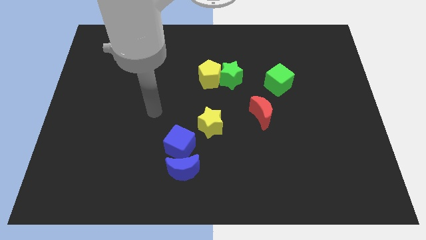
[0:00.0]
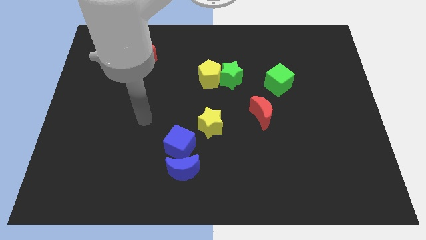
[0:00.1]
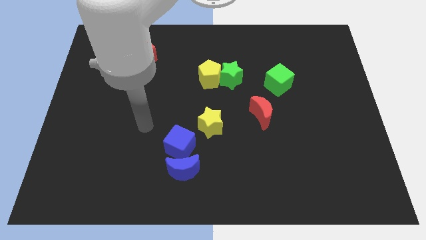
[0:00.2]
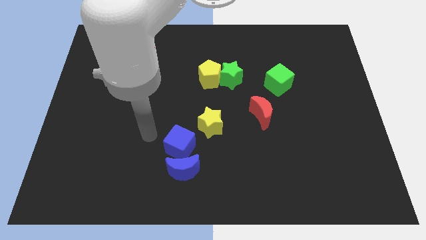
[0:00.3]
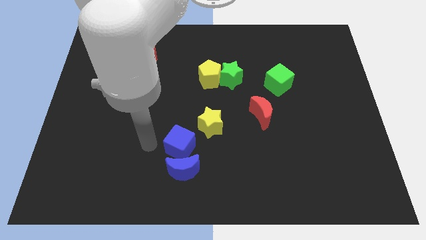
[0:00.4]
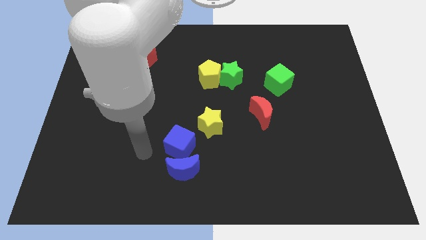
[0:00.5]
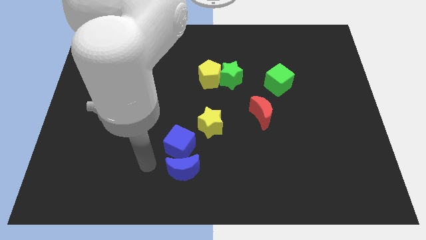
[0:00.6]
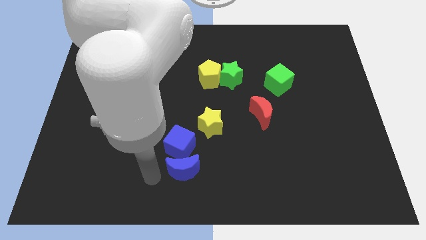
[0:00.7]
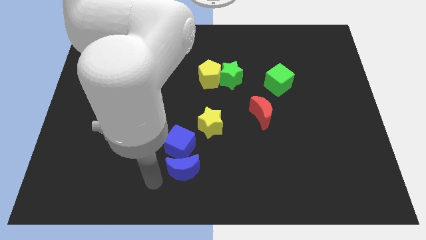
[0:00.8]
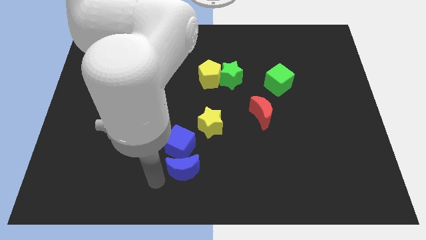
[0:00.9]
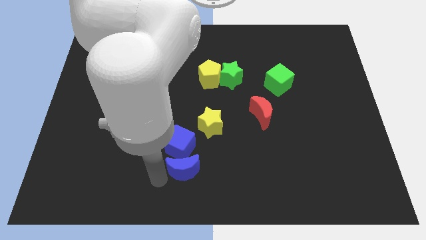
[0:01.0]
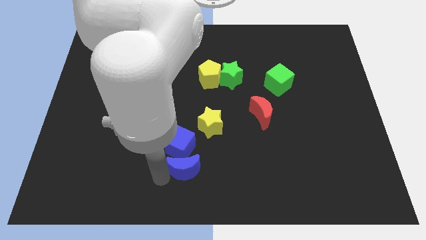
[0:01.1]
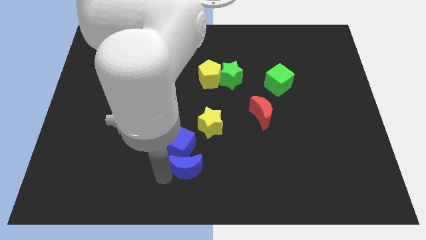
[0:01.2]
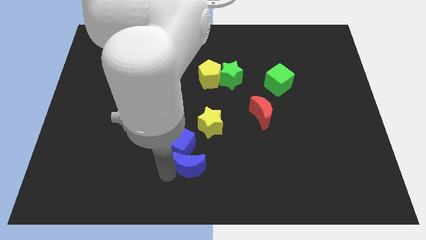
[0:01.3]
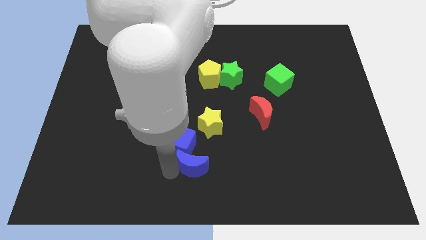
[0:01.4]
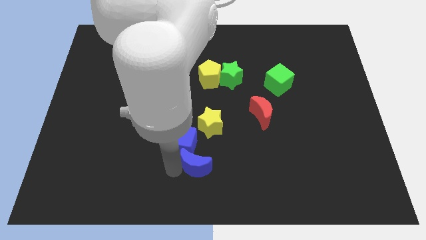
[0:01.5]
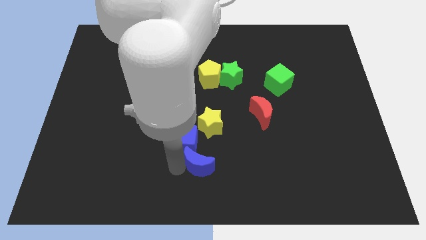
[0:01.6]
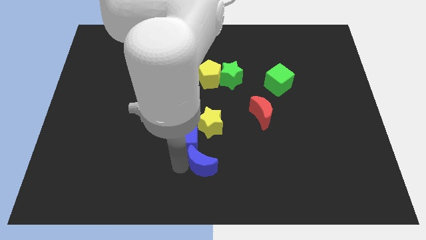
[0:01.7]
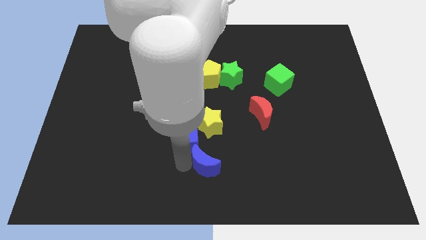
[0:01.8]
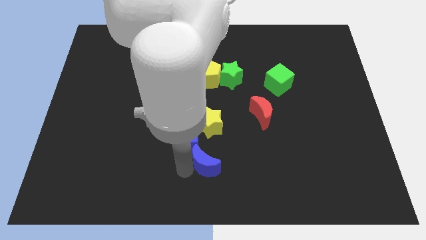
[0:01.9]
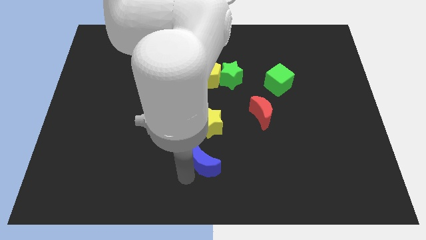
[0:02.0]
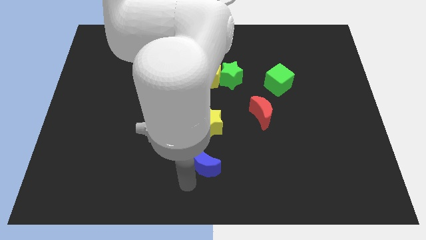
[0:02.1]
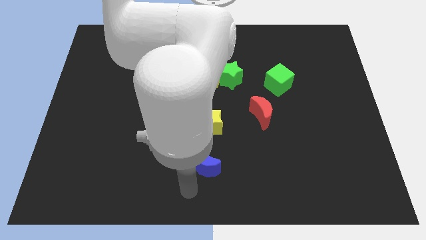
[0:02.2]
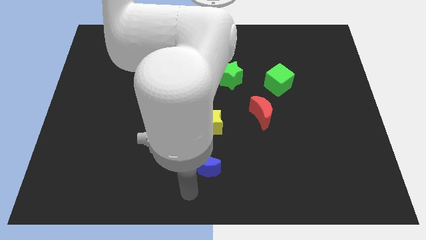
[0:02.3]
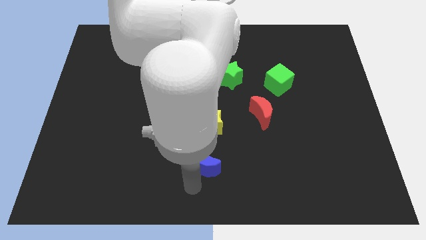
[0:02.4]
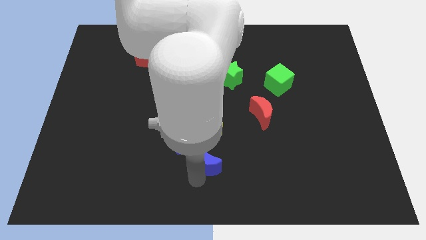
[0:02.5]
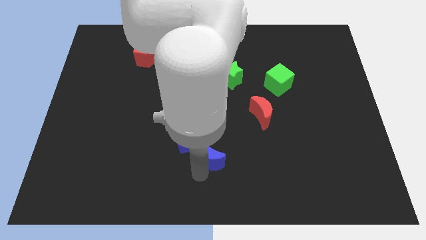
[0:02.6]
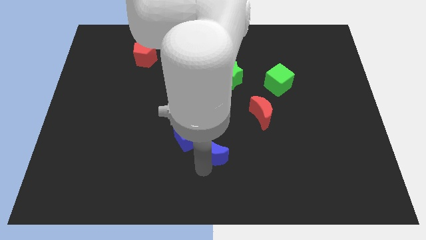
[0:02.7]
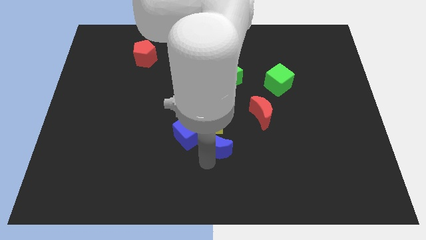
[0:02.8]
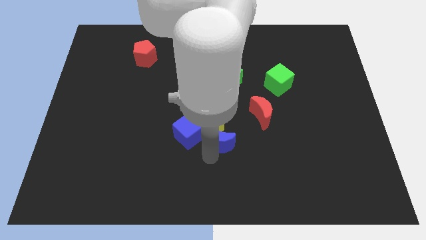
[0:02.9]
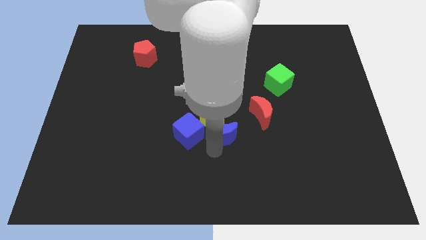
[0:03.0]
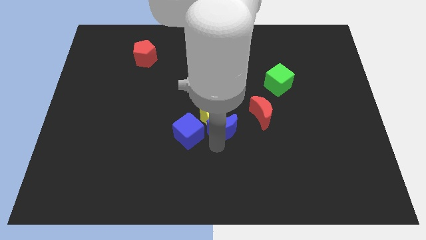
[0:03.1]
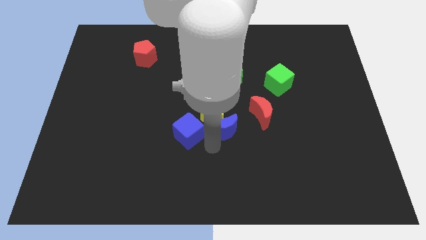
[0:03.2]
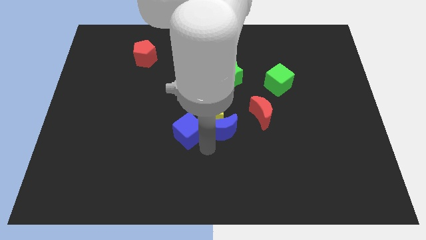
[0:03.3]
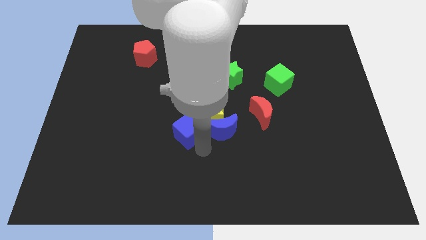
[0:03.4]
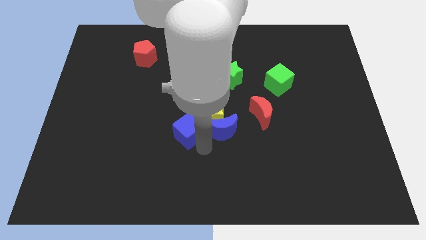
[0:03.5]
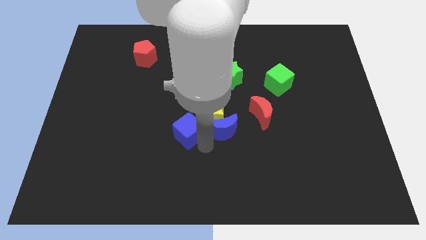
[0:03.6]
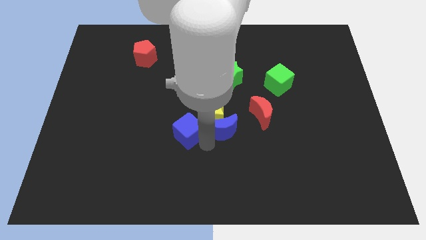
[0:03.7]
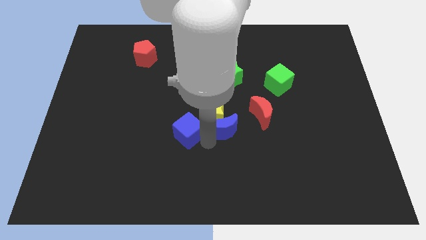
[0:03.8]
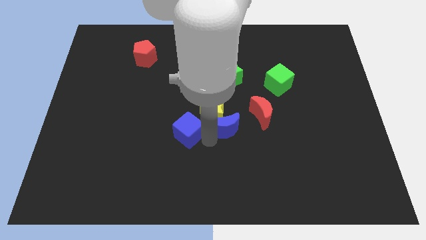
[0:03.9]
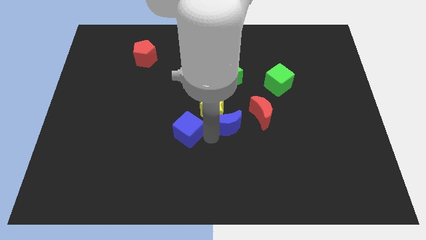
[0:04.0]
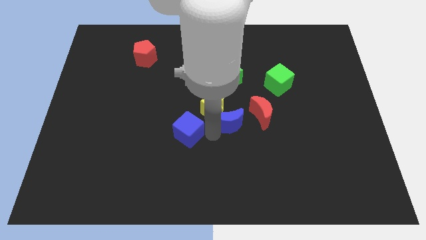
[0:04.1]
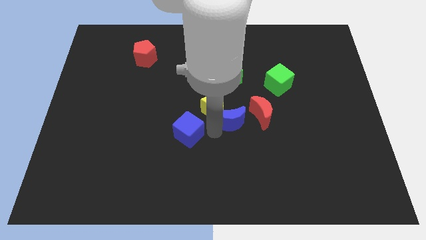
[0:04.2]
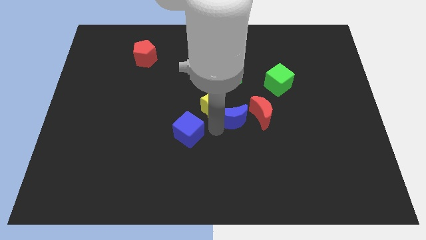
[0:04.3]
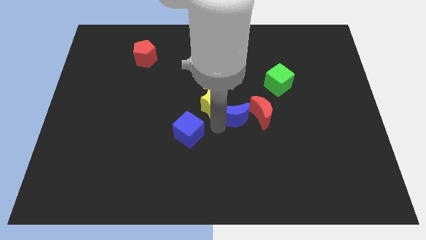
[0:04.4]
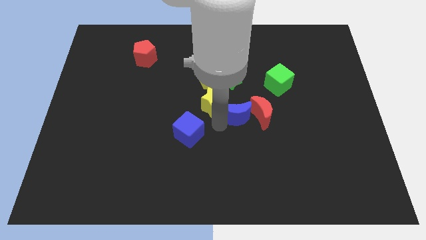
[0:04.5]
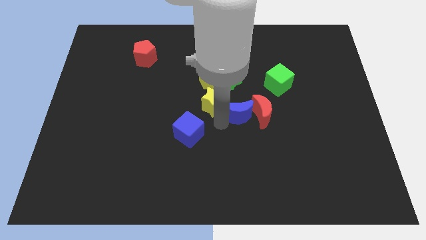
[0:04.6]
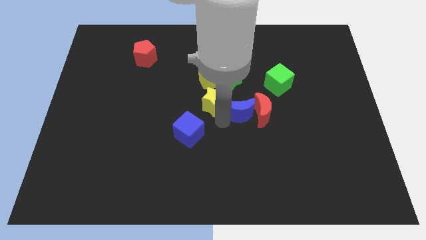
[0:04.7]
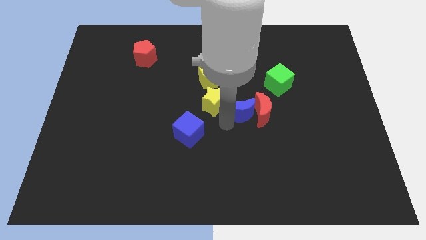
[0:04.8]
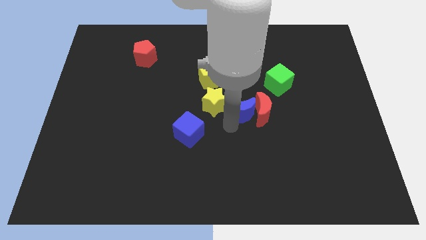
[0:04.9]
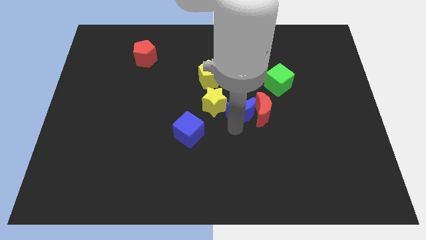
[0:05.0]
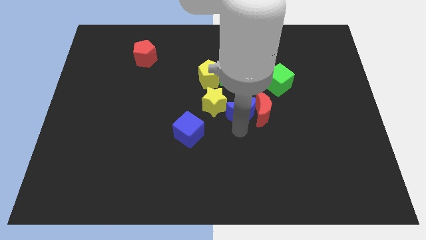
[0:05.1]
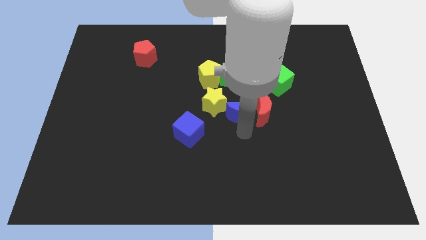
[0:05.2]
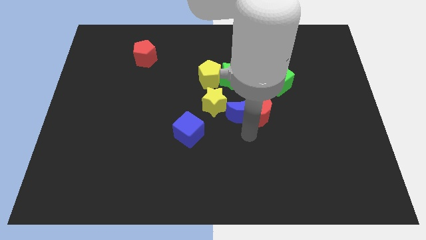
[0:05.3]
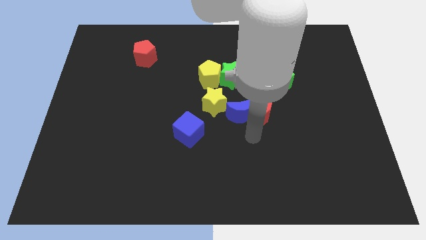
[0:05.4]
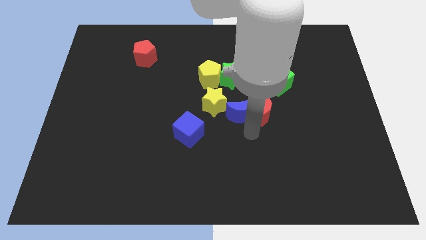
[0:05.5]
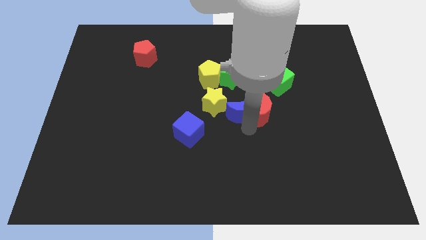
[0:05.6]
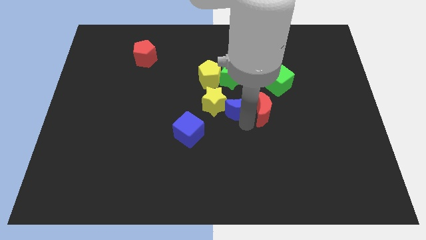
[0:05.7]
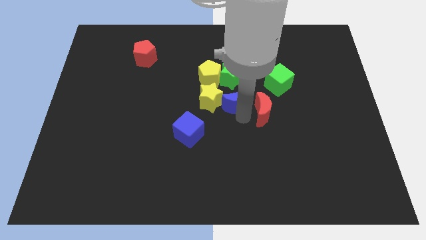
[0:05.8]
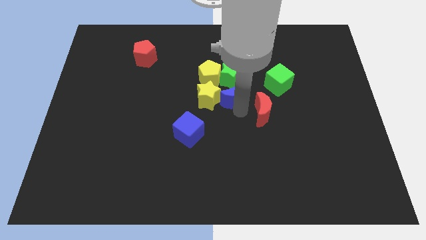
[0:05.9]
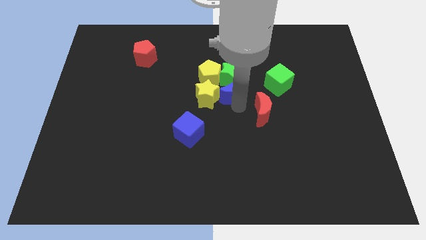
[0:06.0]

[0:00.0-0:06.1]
move the blue moon towards the green star

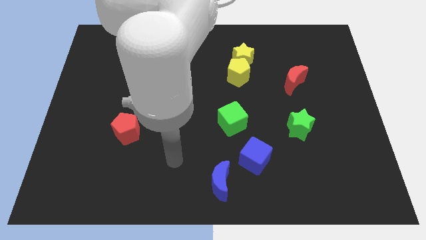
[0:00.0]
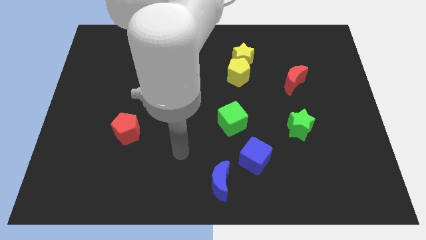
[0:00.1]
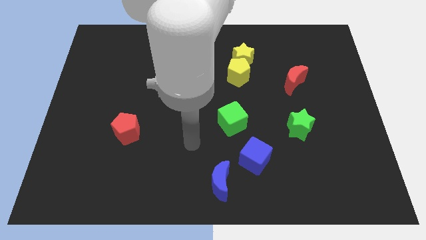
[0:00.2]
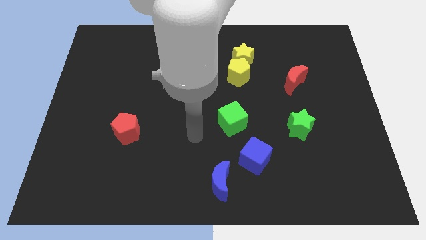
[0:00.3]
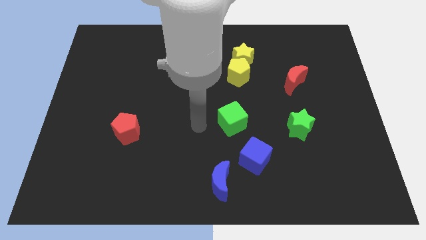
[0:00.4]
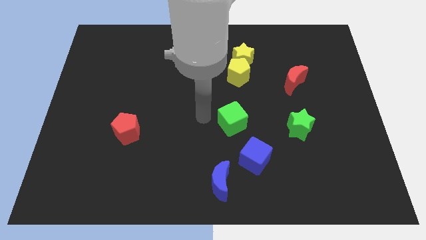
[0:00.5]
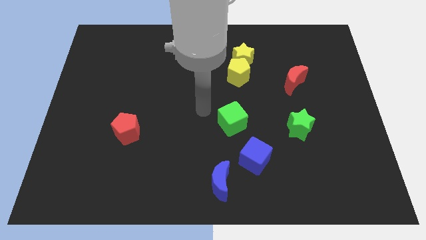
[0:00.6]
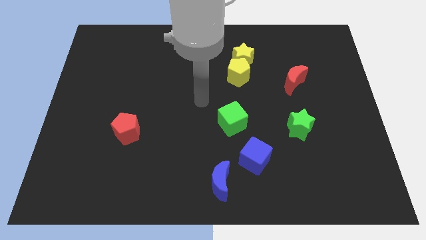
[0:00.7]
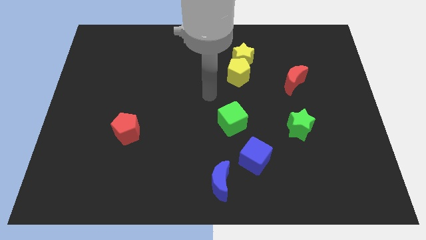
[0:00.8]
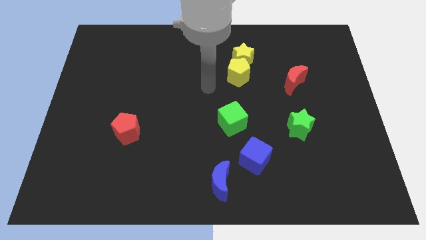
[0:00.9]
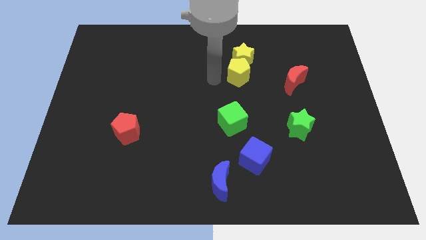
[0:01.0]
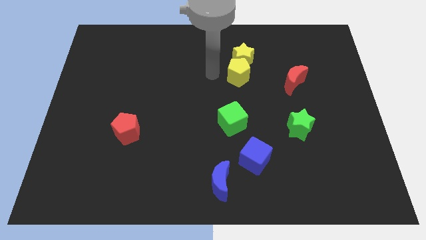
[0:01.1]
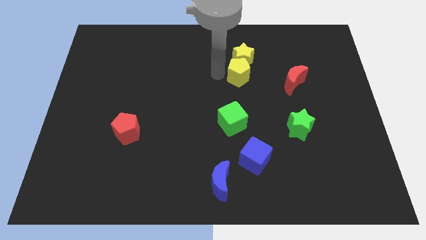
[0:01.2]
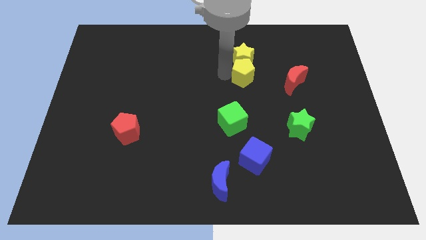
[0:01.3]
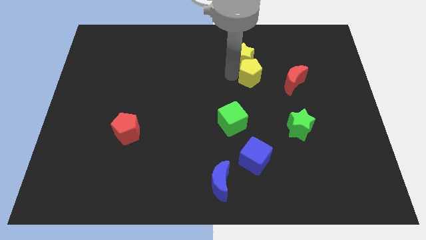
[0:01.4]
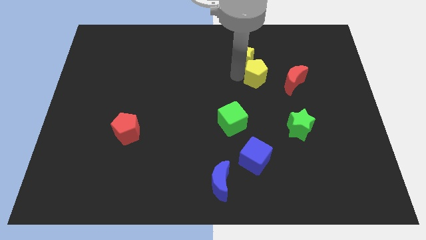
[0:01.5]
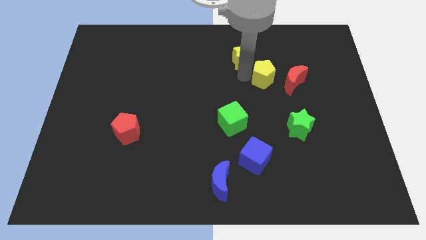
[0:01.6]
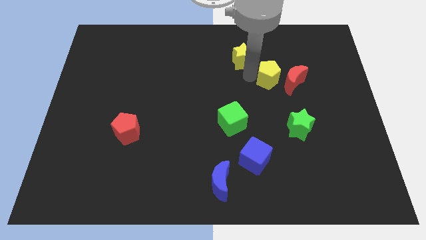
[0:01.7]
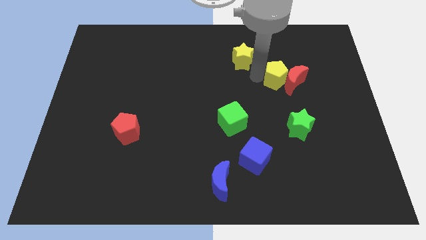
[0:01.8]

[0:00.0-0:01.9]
slide the yellow pentagon close to the red moon
